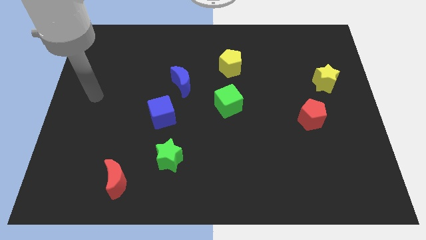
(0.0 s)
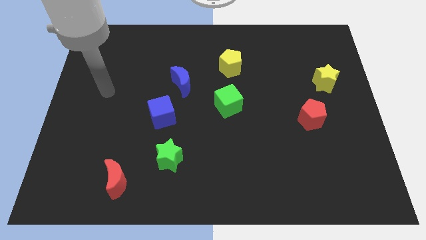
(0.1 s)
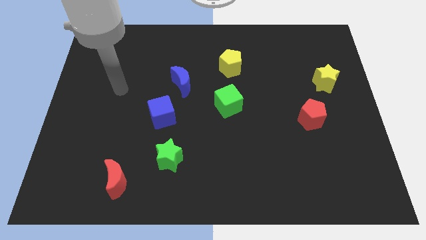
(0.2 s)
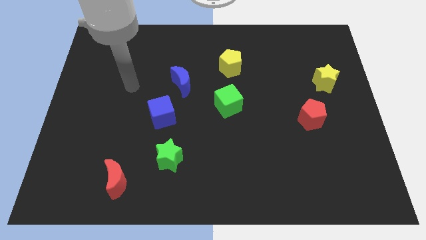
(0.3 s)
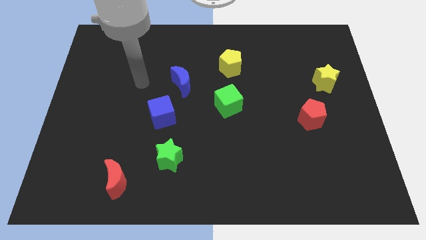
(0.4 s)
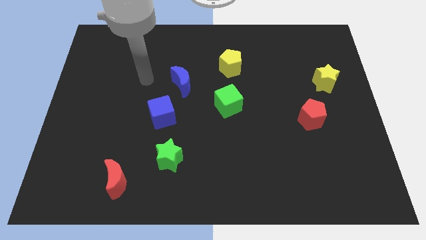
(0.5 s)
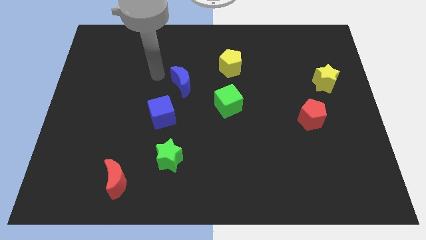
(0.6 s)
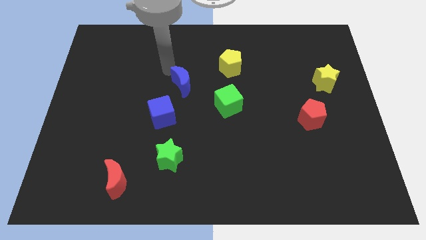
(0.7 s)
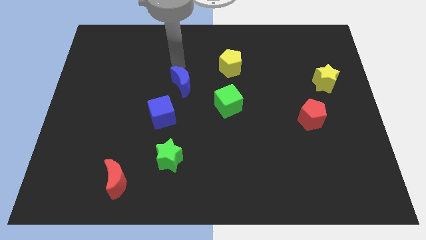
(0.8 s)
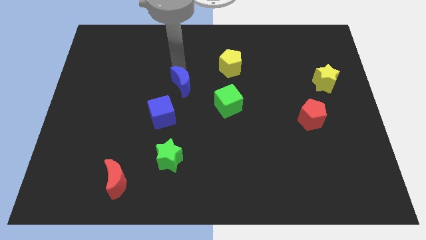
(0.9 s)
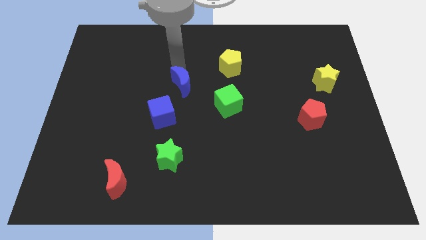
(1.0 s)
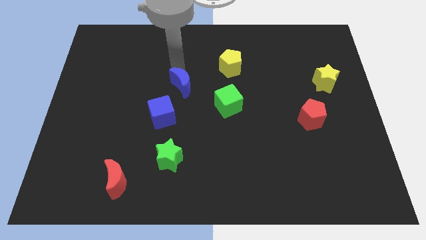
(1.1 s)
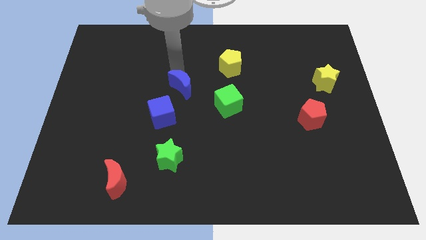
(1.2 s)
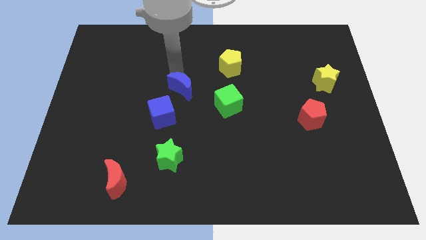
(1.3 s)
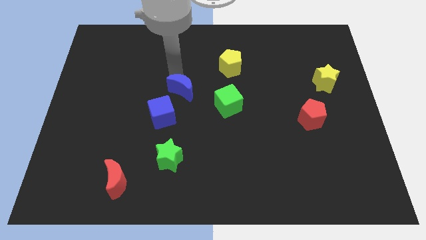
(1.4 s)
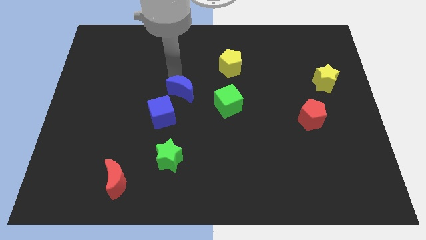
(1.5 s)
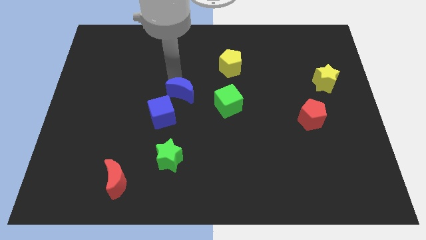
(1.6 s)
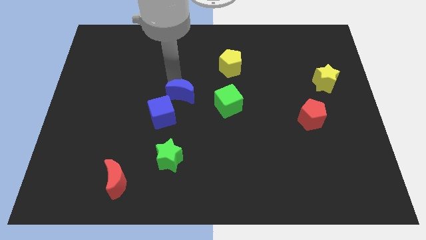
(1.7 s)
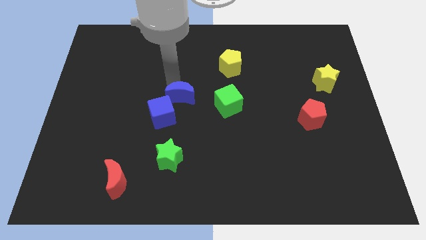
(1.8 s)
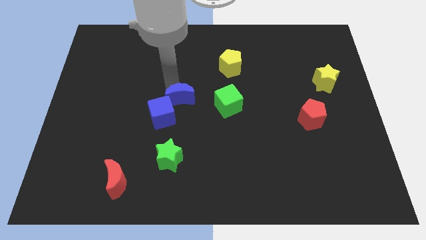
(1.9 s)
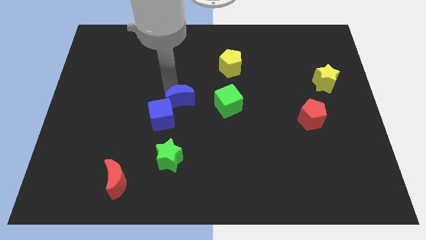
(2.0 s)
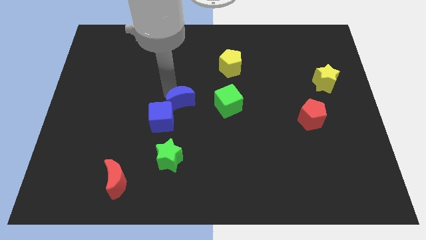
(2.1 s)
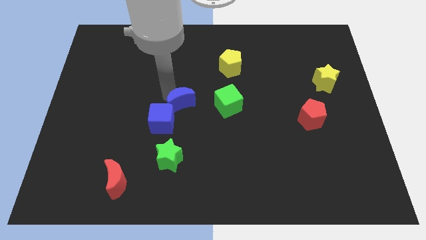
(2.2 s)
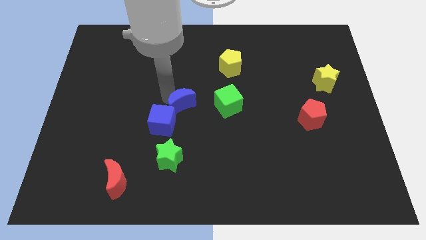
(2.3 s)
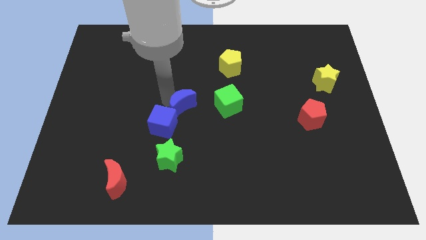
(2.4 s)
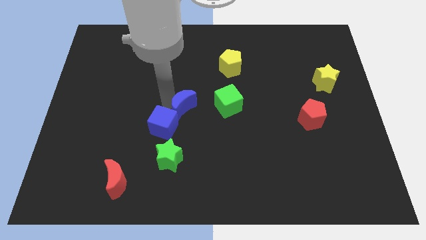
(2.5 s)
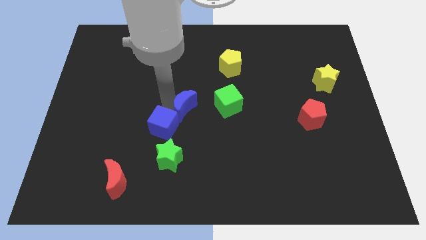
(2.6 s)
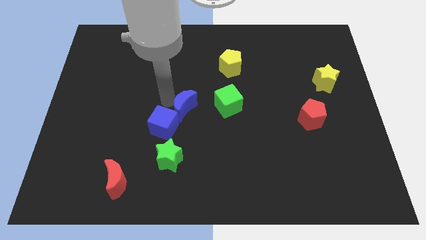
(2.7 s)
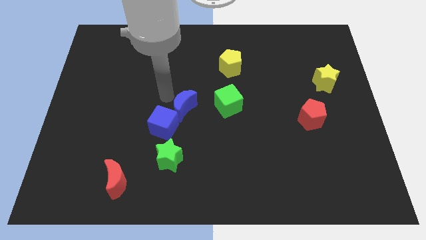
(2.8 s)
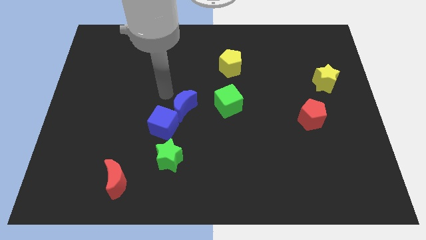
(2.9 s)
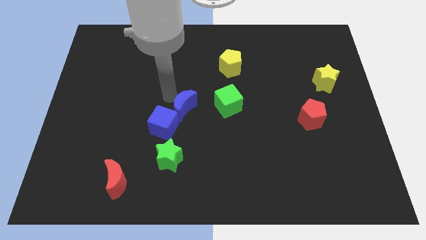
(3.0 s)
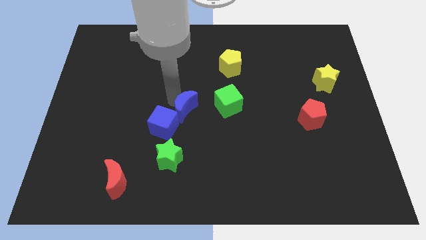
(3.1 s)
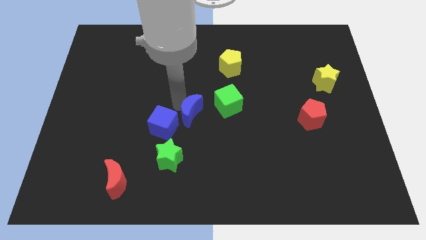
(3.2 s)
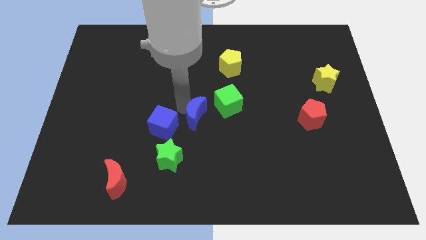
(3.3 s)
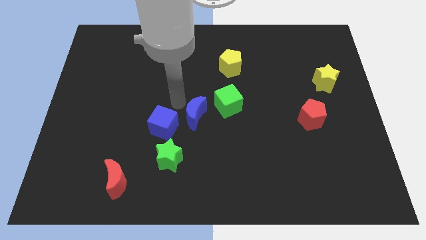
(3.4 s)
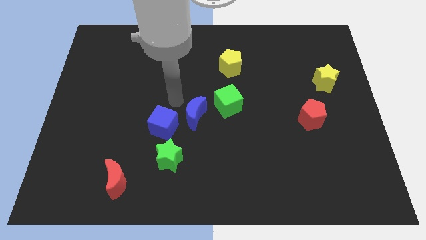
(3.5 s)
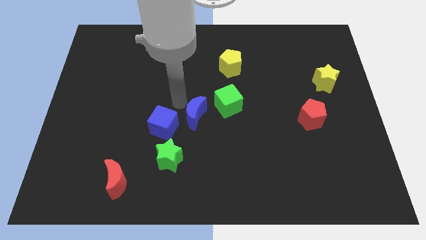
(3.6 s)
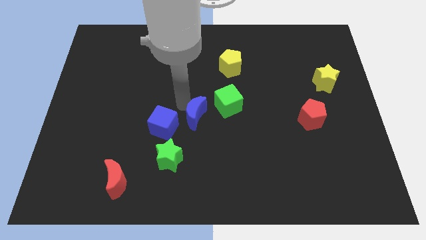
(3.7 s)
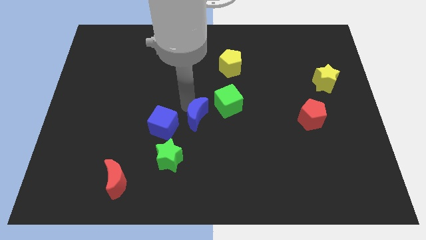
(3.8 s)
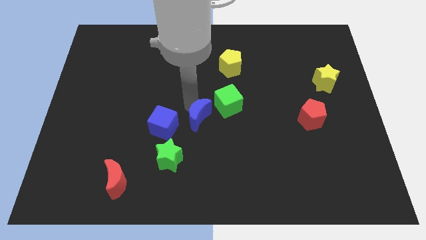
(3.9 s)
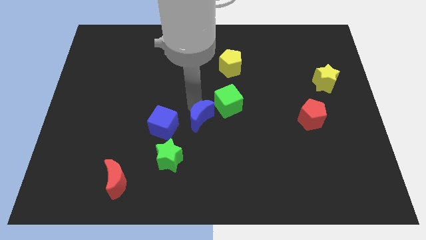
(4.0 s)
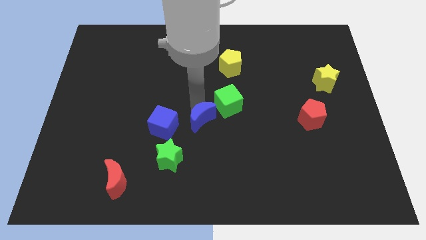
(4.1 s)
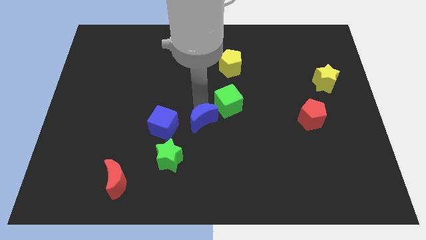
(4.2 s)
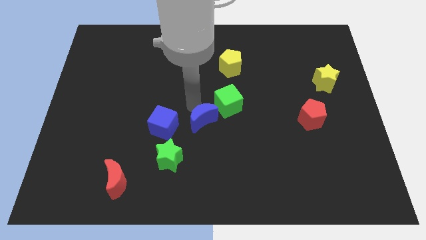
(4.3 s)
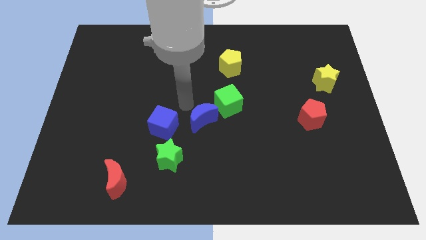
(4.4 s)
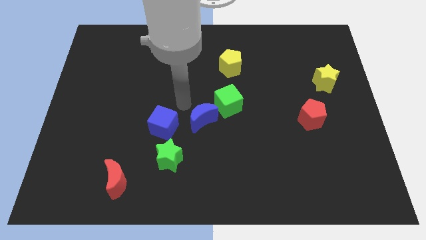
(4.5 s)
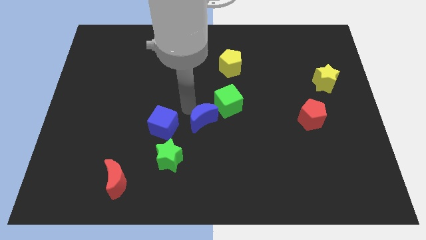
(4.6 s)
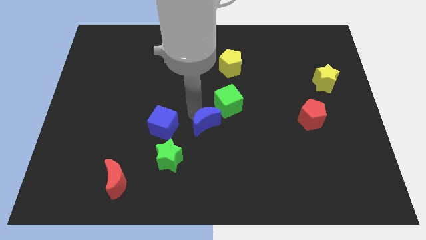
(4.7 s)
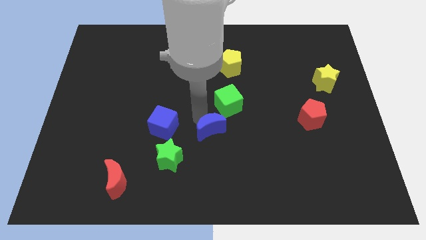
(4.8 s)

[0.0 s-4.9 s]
move the blue moon below the green cube

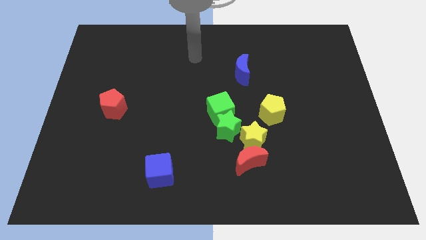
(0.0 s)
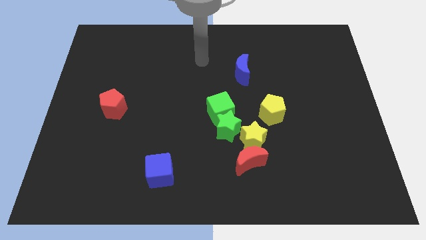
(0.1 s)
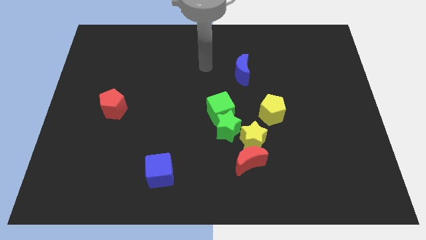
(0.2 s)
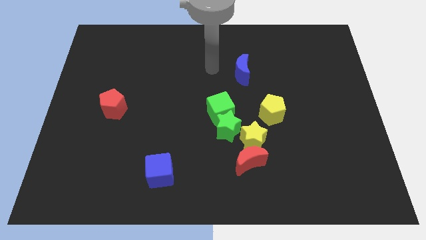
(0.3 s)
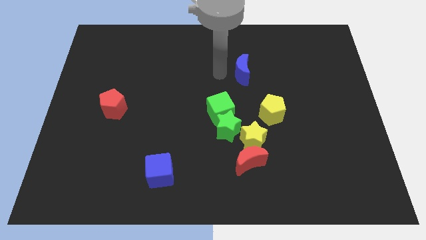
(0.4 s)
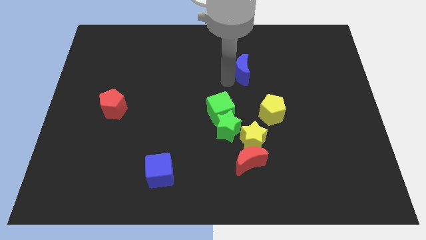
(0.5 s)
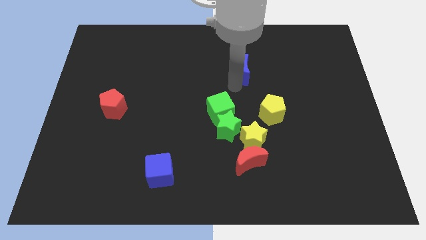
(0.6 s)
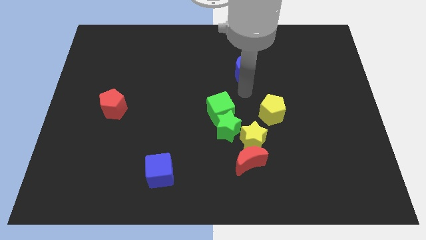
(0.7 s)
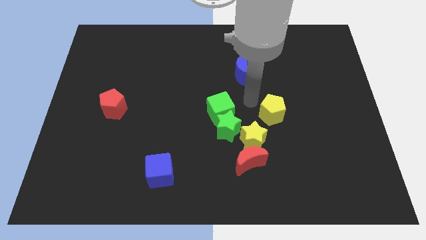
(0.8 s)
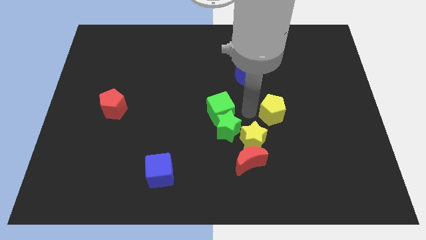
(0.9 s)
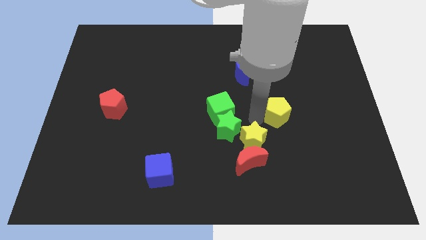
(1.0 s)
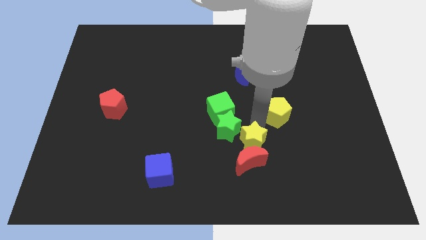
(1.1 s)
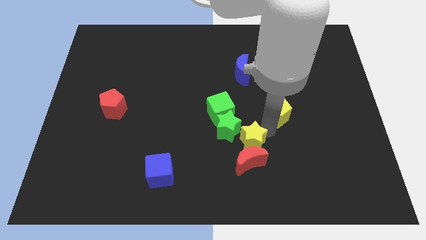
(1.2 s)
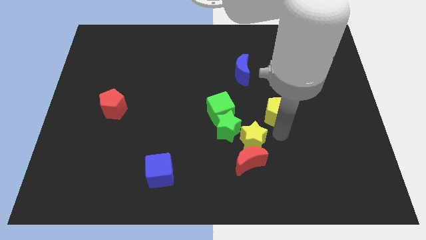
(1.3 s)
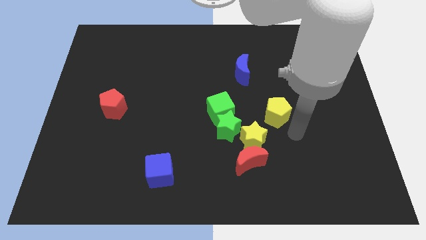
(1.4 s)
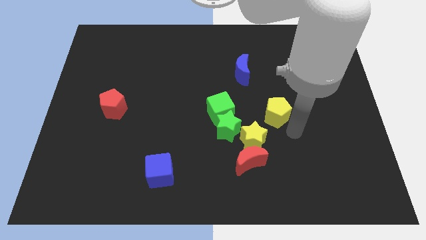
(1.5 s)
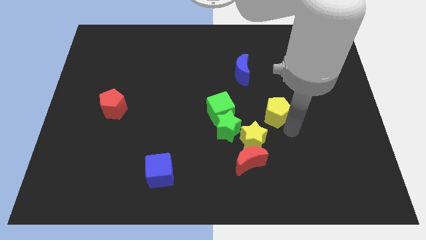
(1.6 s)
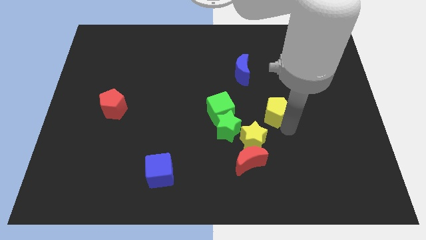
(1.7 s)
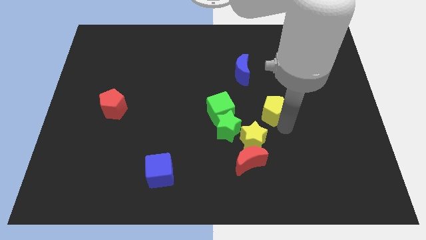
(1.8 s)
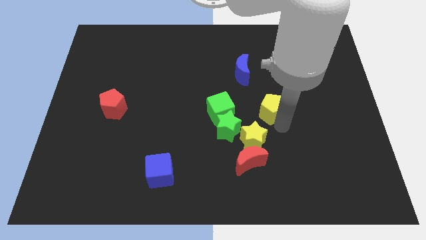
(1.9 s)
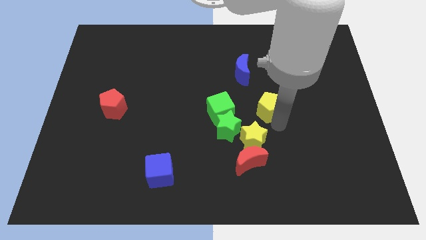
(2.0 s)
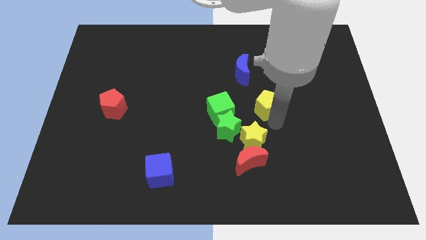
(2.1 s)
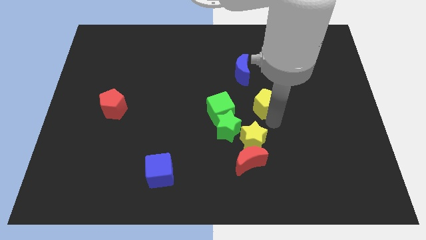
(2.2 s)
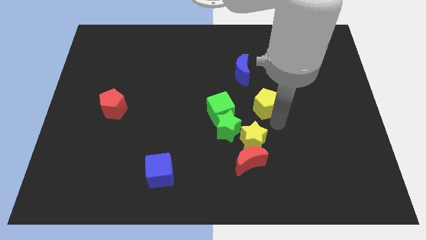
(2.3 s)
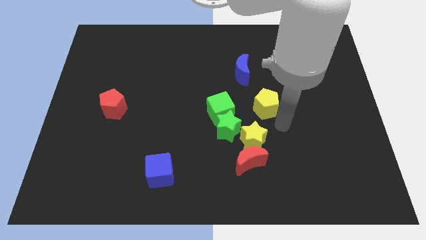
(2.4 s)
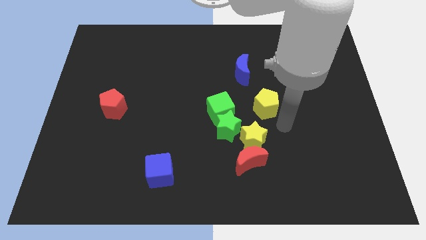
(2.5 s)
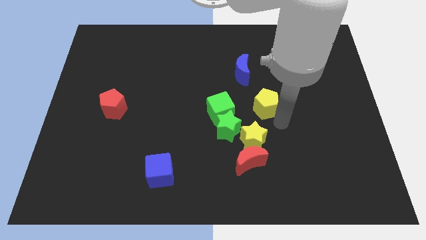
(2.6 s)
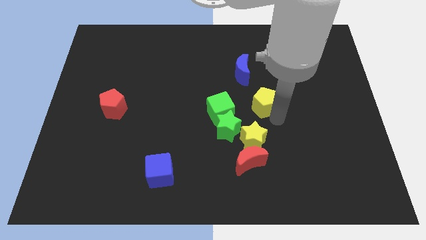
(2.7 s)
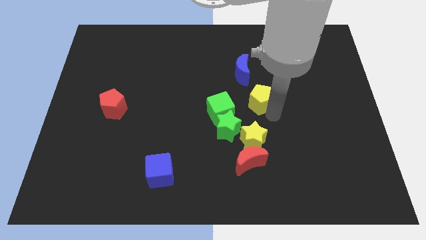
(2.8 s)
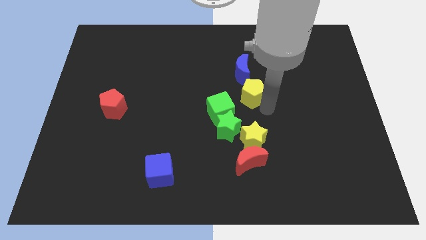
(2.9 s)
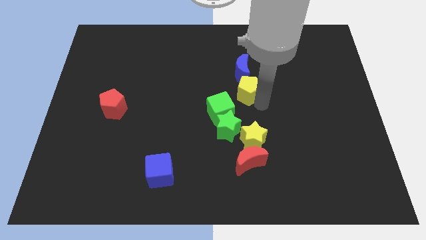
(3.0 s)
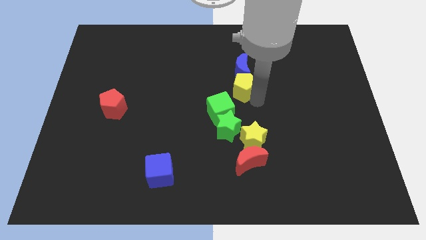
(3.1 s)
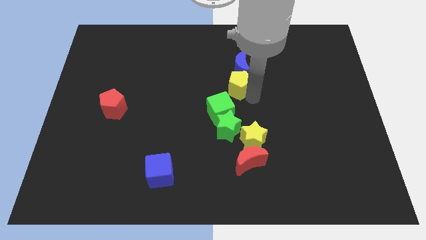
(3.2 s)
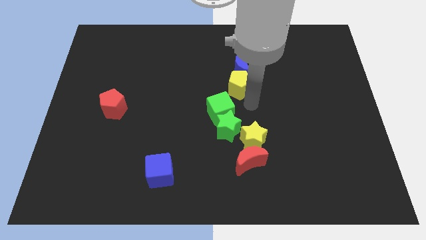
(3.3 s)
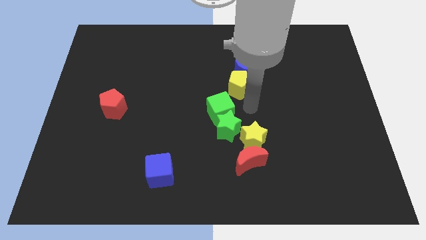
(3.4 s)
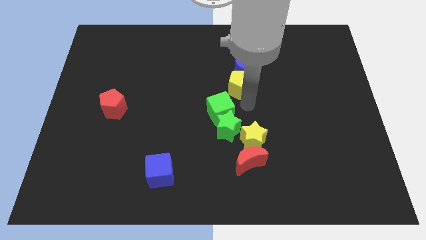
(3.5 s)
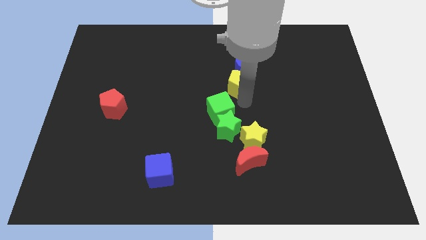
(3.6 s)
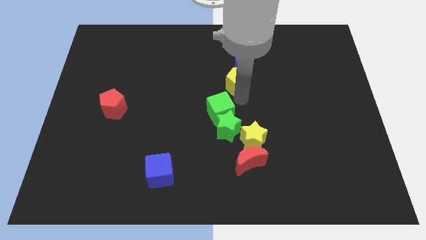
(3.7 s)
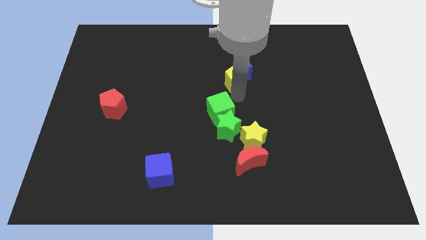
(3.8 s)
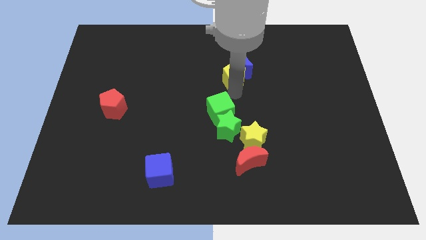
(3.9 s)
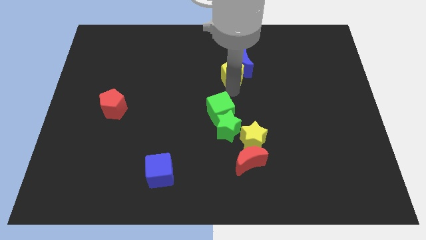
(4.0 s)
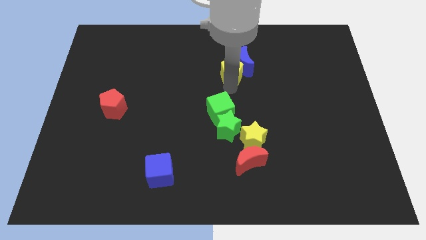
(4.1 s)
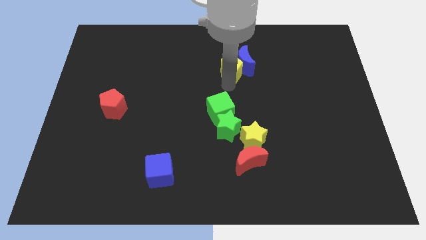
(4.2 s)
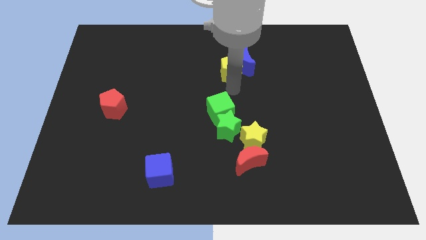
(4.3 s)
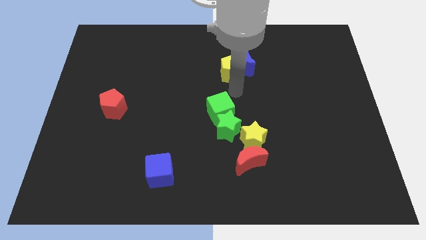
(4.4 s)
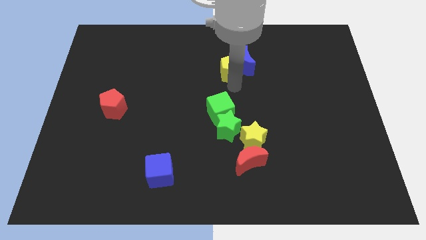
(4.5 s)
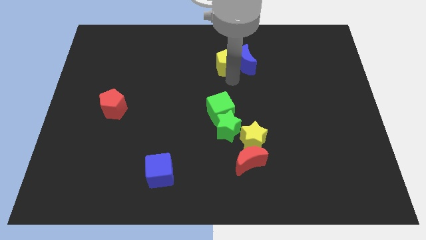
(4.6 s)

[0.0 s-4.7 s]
push the yellow pentagon to the top left of the blue moon
